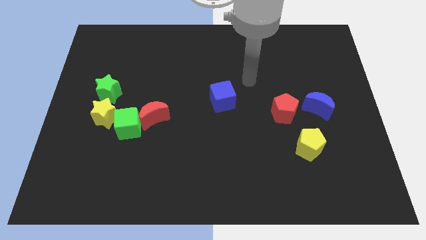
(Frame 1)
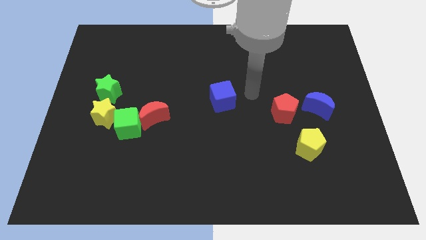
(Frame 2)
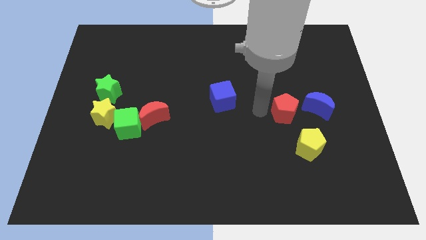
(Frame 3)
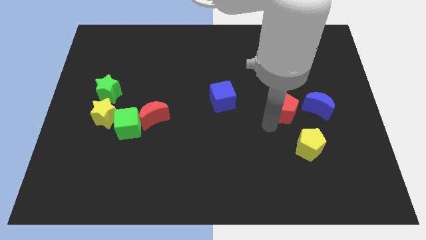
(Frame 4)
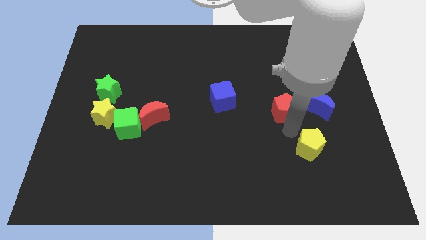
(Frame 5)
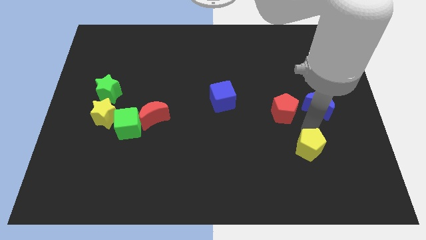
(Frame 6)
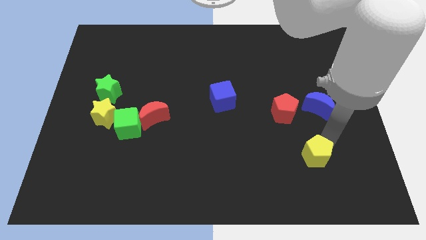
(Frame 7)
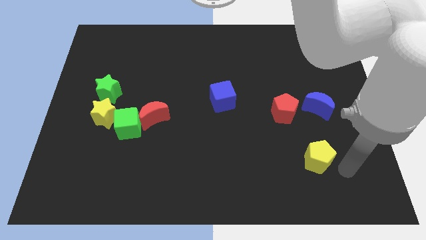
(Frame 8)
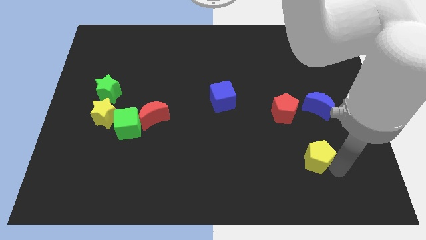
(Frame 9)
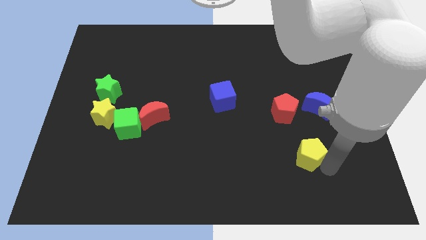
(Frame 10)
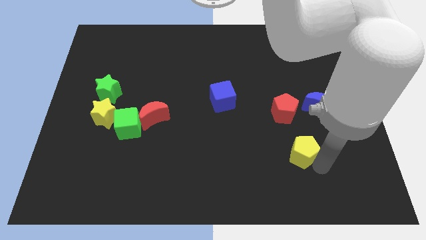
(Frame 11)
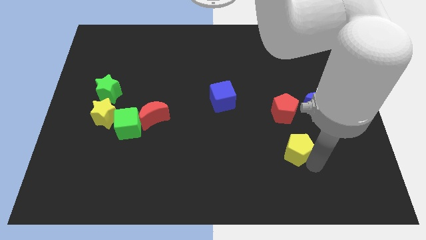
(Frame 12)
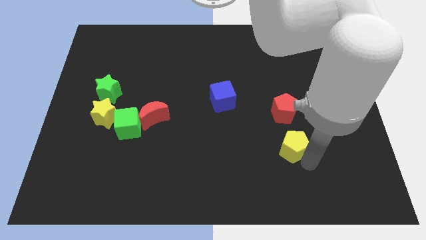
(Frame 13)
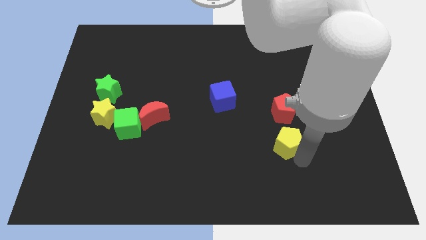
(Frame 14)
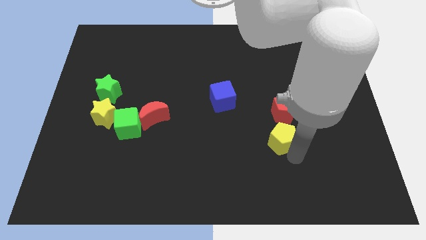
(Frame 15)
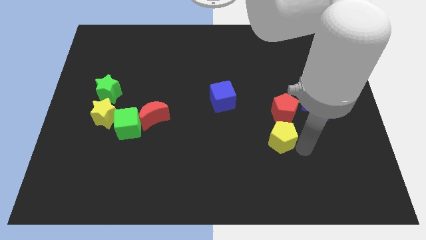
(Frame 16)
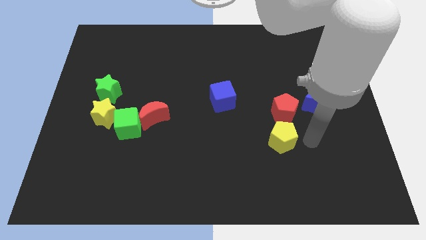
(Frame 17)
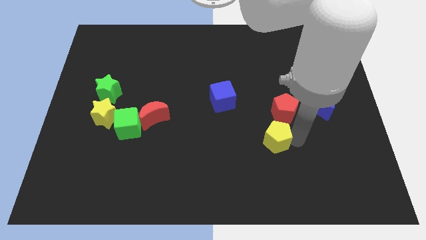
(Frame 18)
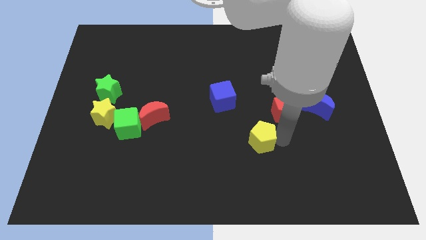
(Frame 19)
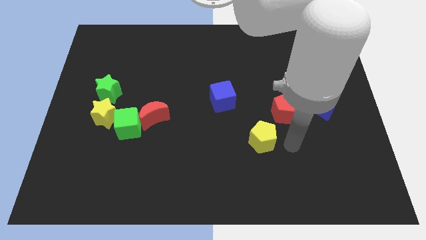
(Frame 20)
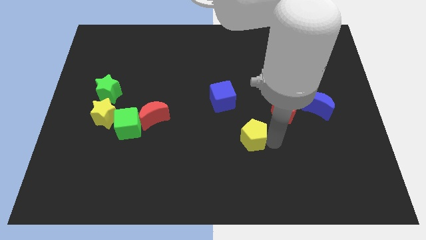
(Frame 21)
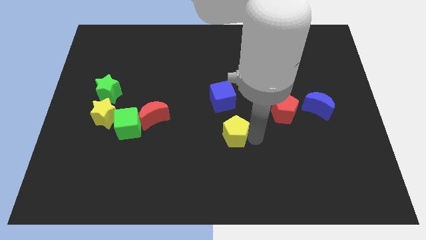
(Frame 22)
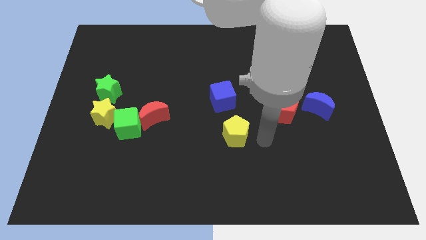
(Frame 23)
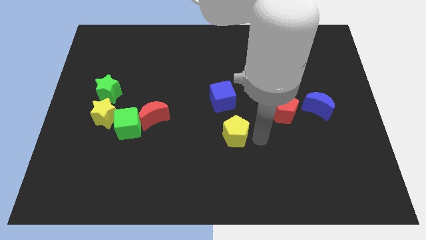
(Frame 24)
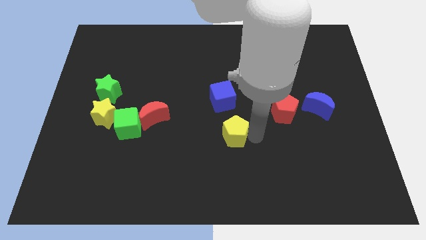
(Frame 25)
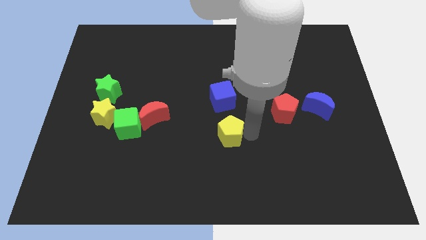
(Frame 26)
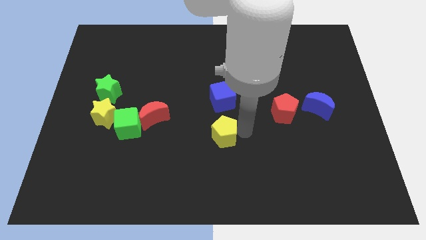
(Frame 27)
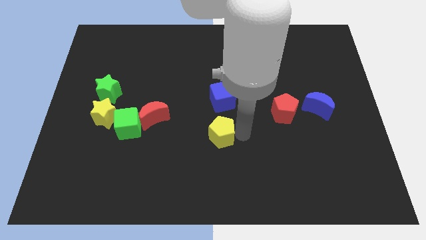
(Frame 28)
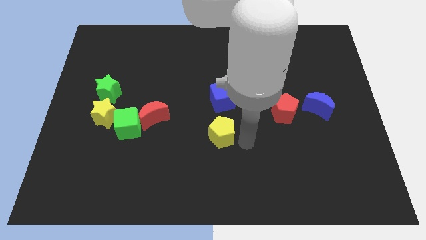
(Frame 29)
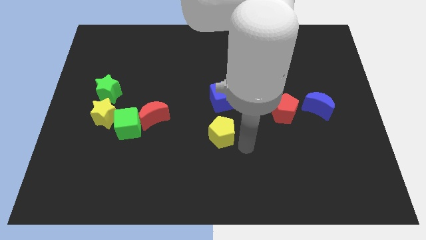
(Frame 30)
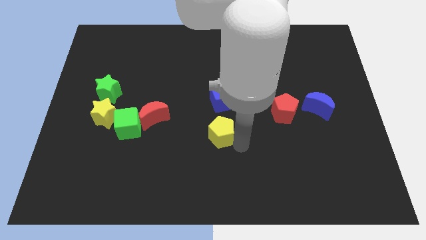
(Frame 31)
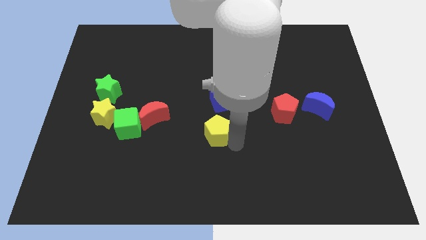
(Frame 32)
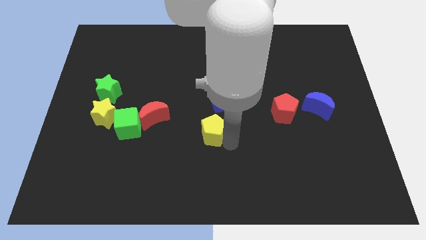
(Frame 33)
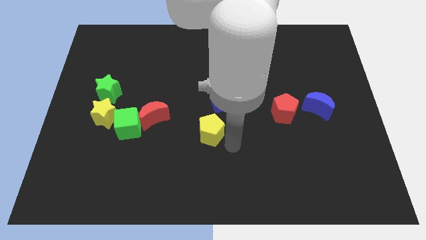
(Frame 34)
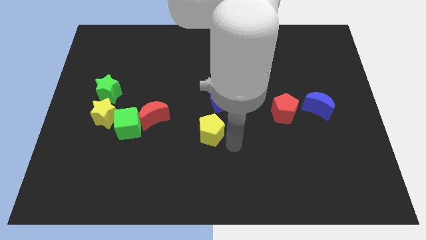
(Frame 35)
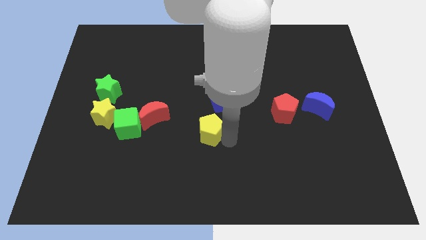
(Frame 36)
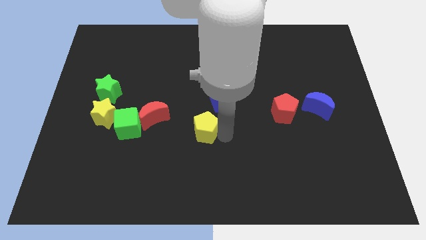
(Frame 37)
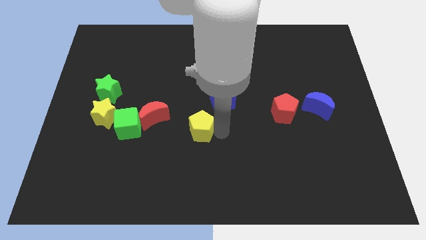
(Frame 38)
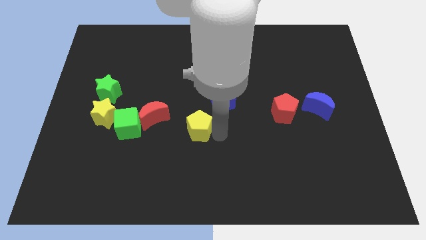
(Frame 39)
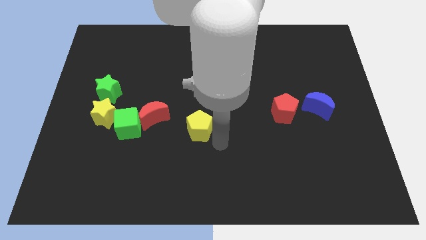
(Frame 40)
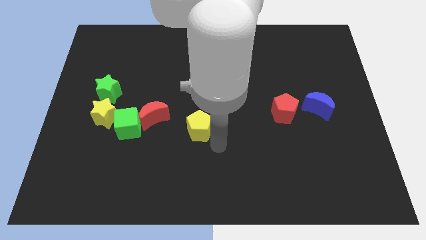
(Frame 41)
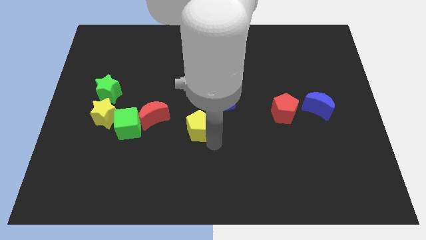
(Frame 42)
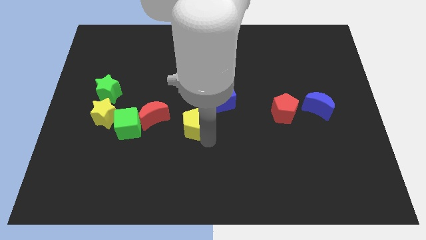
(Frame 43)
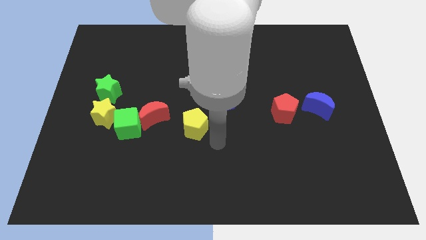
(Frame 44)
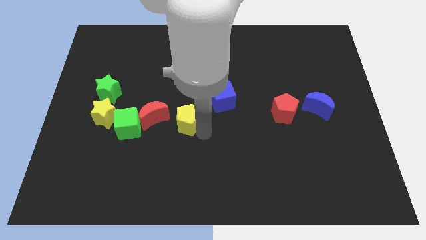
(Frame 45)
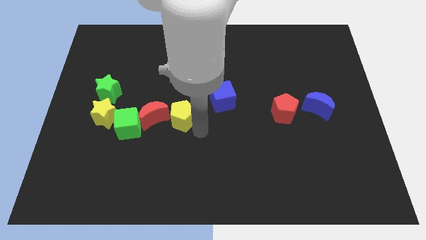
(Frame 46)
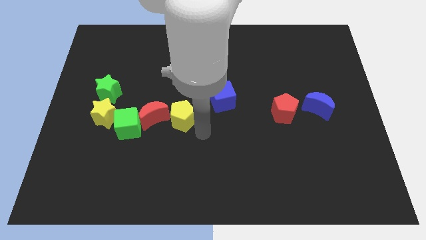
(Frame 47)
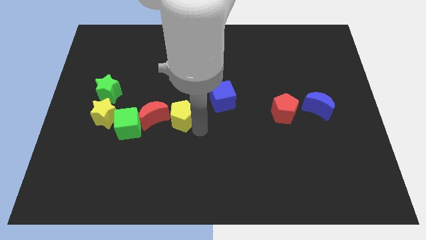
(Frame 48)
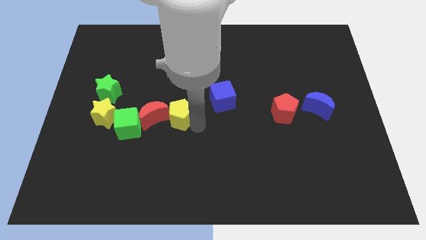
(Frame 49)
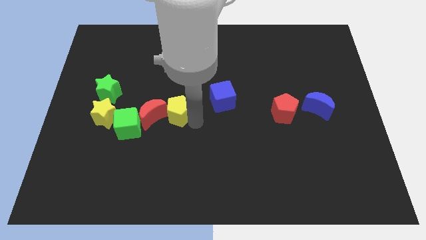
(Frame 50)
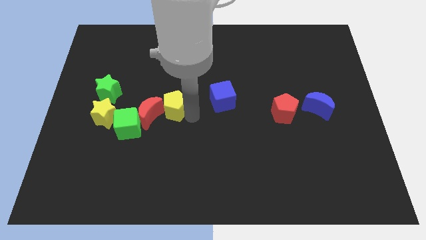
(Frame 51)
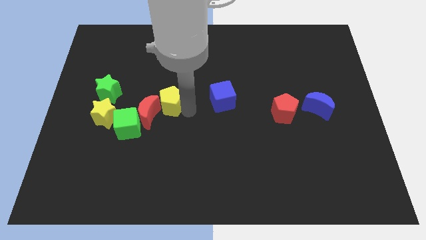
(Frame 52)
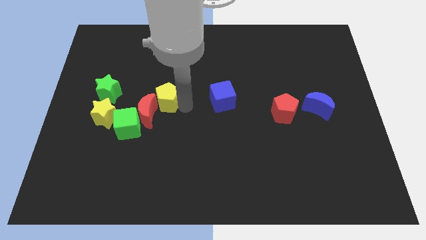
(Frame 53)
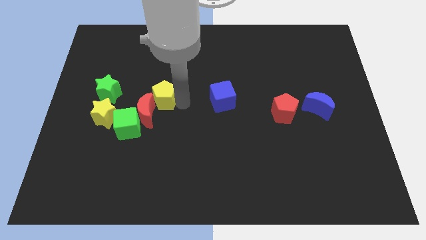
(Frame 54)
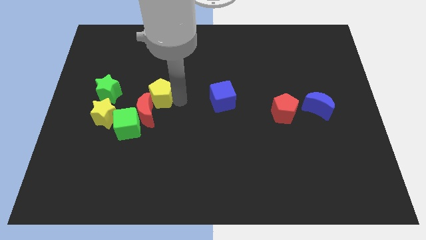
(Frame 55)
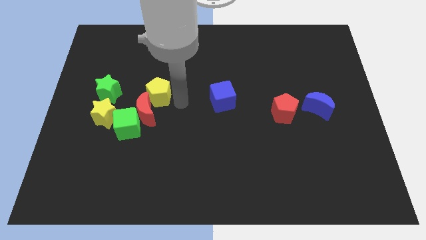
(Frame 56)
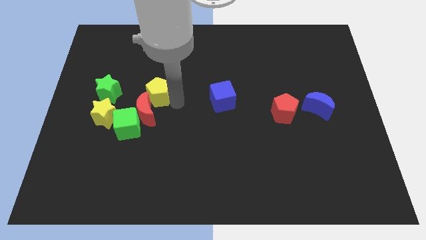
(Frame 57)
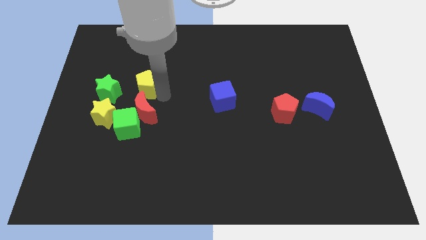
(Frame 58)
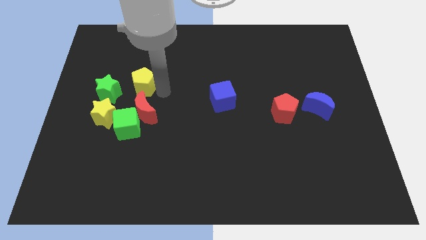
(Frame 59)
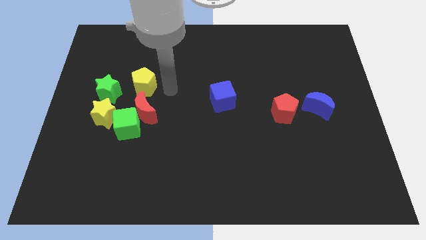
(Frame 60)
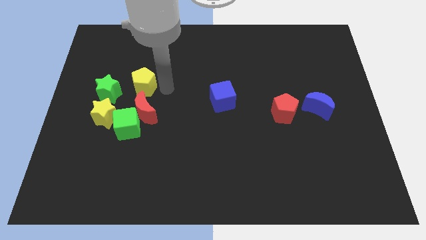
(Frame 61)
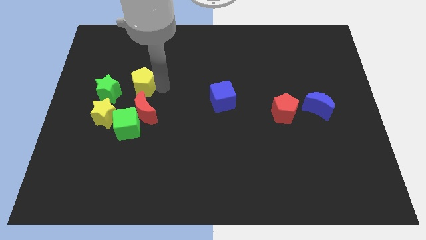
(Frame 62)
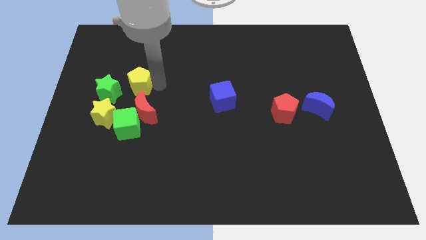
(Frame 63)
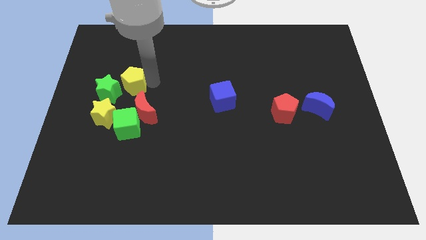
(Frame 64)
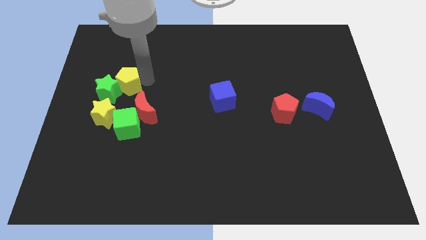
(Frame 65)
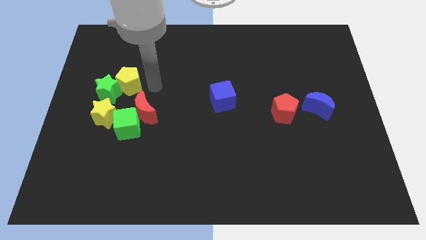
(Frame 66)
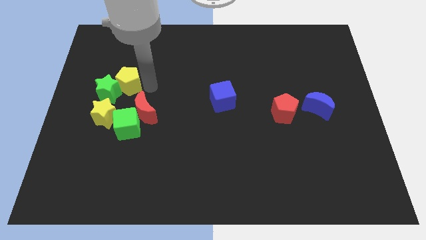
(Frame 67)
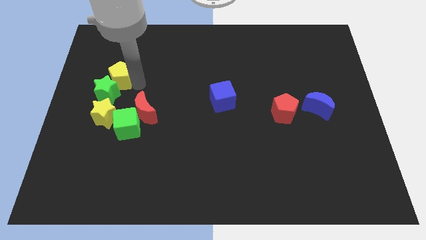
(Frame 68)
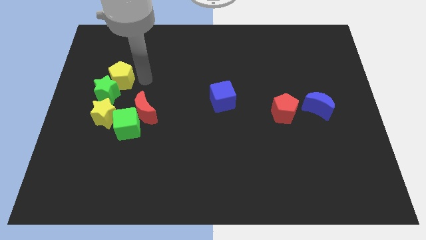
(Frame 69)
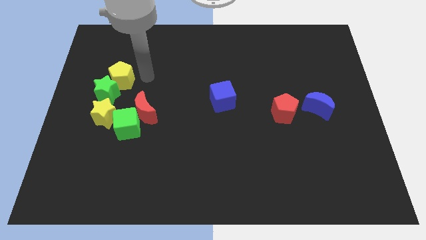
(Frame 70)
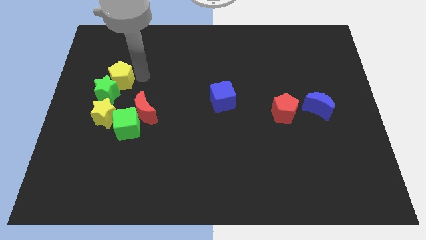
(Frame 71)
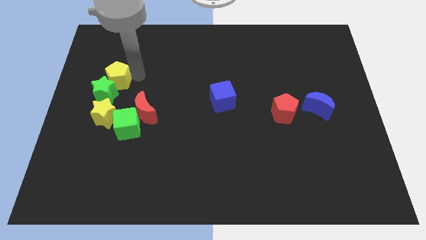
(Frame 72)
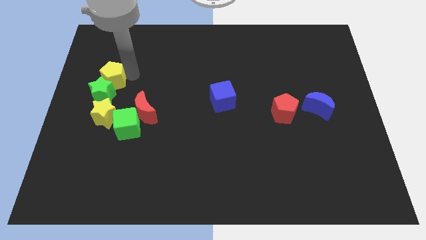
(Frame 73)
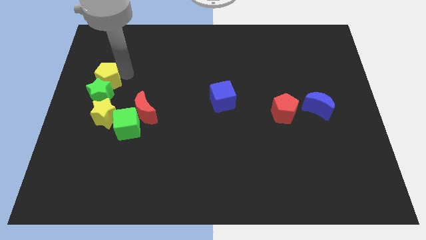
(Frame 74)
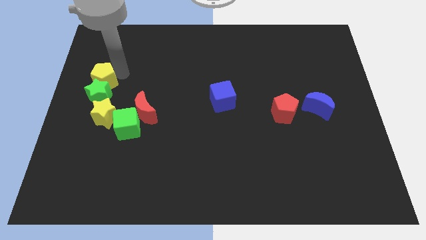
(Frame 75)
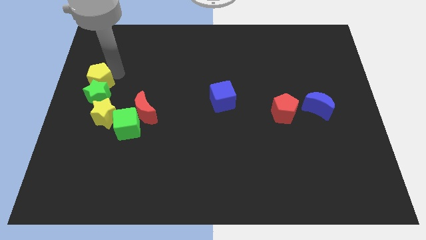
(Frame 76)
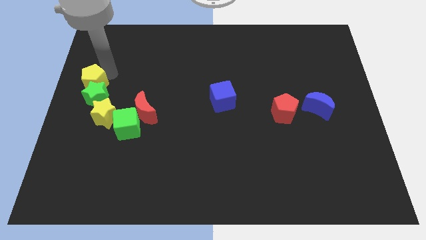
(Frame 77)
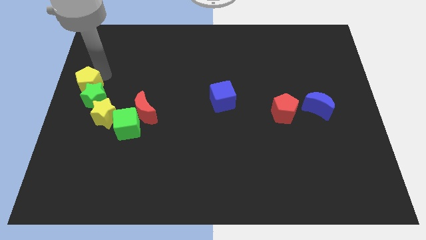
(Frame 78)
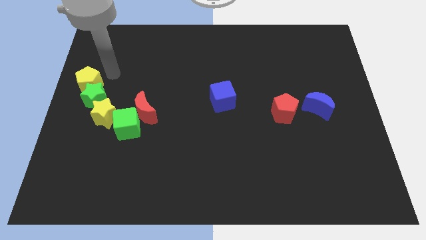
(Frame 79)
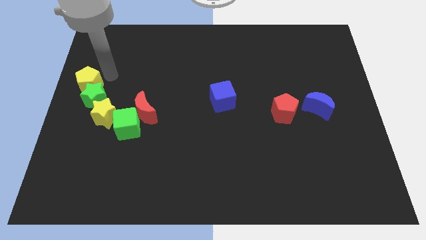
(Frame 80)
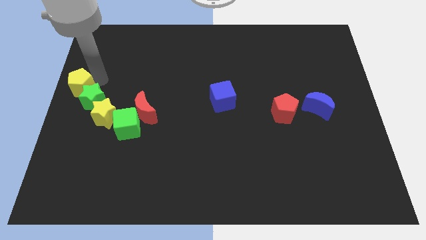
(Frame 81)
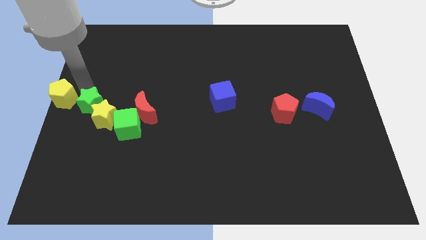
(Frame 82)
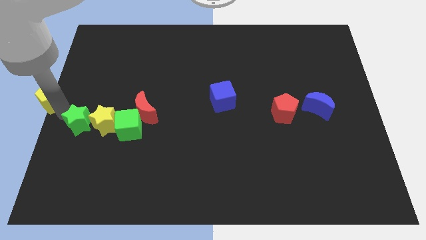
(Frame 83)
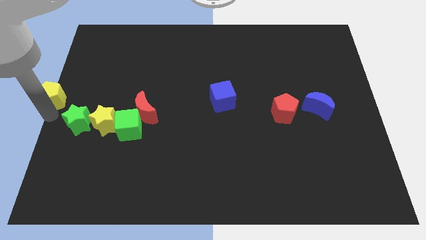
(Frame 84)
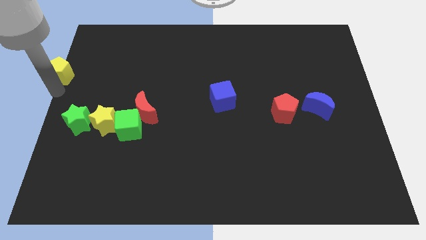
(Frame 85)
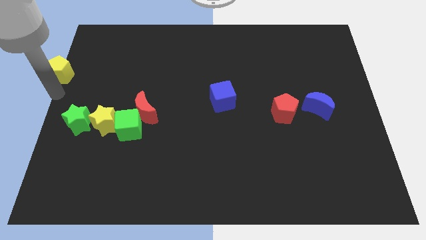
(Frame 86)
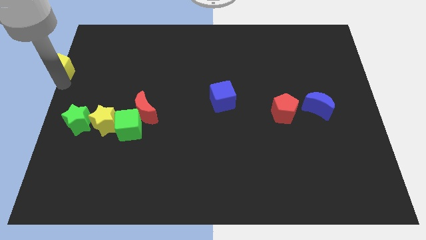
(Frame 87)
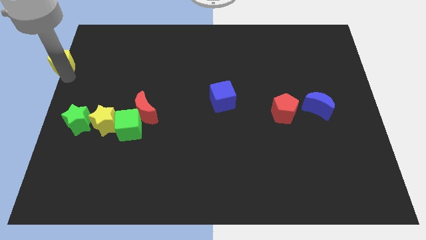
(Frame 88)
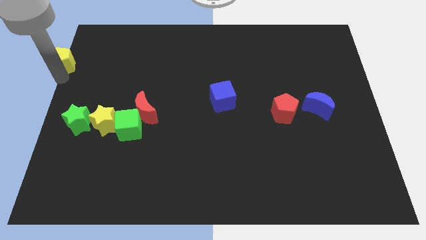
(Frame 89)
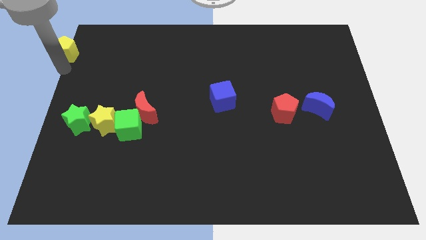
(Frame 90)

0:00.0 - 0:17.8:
put the yellow pentagon to the top left
